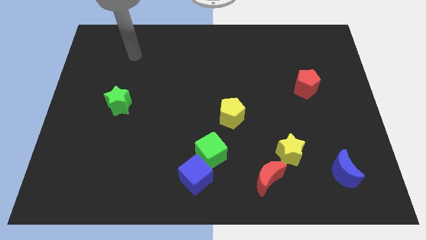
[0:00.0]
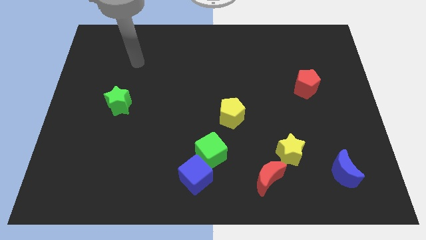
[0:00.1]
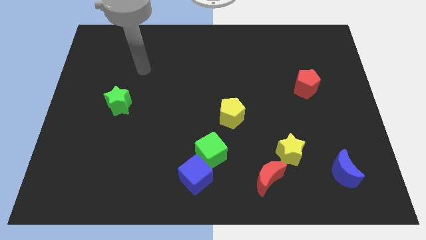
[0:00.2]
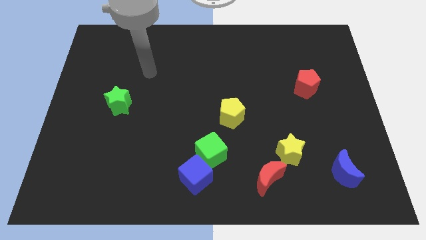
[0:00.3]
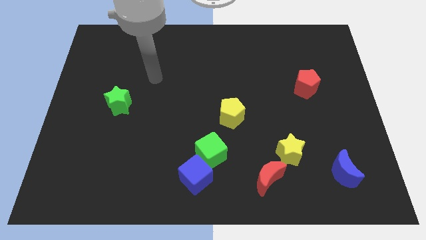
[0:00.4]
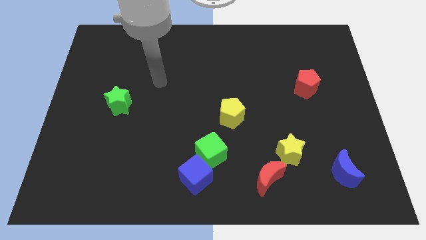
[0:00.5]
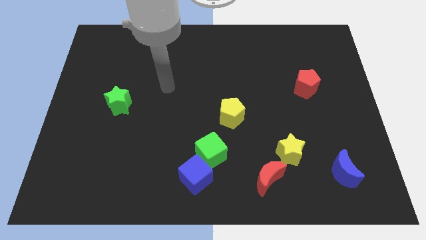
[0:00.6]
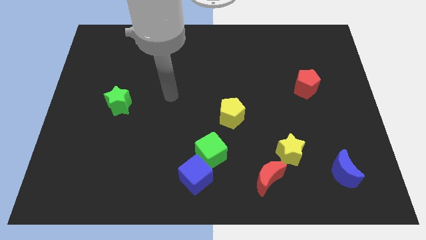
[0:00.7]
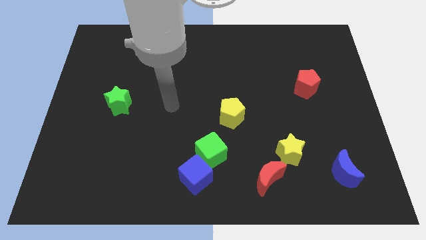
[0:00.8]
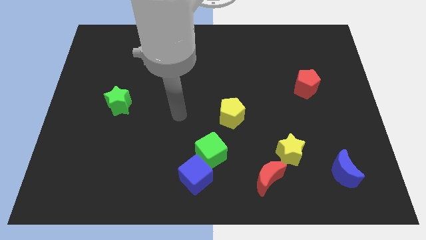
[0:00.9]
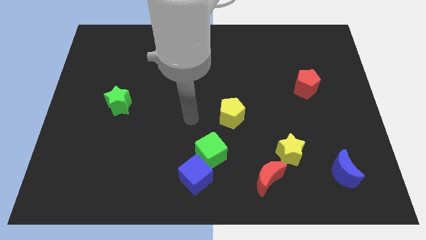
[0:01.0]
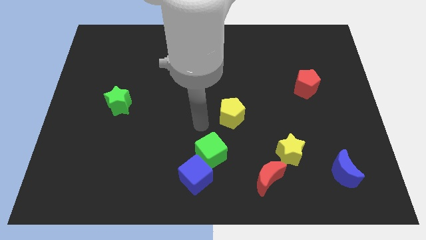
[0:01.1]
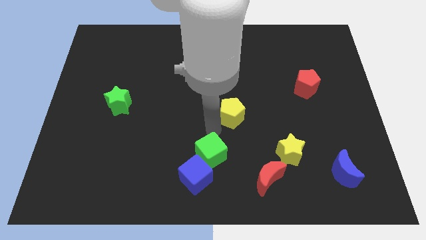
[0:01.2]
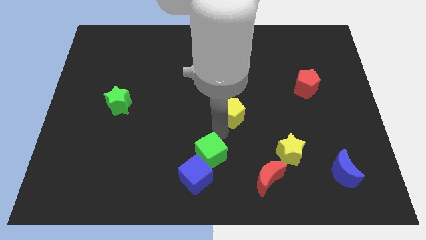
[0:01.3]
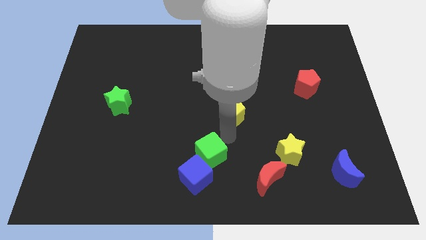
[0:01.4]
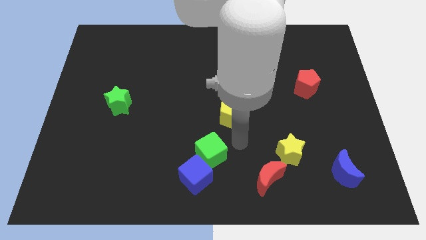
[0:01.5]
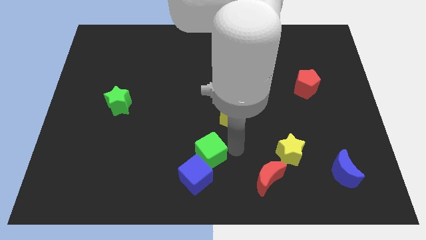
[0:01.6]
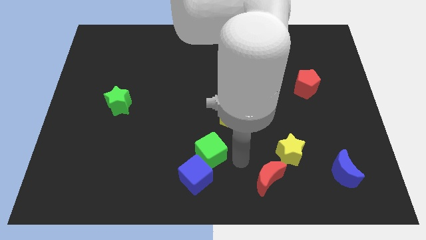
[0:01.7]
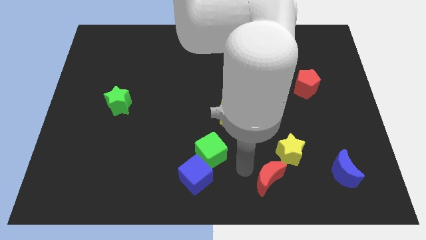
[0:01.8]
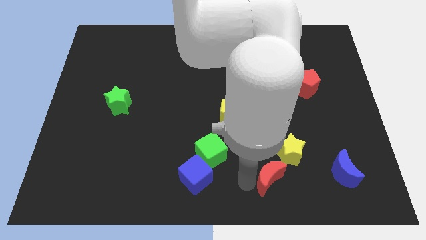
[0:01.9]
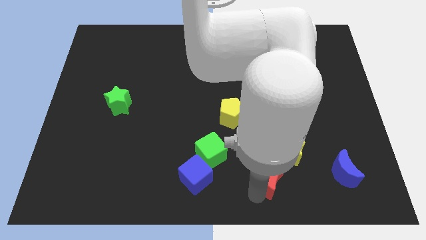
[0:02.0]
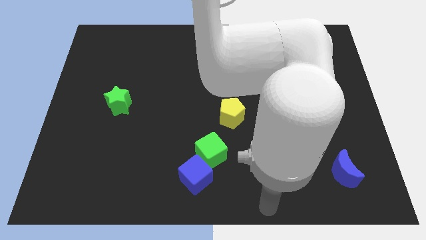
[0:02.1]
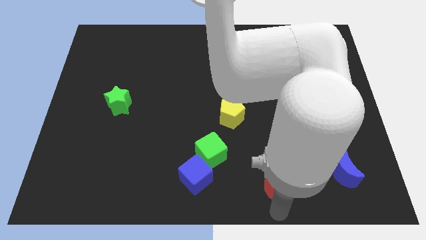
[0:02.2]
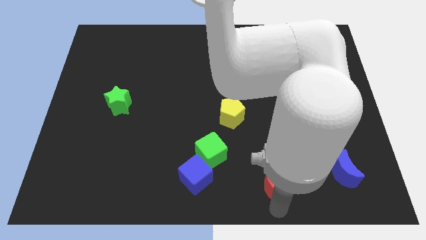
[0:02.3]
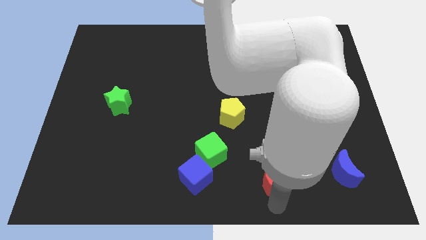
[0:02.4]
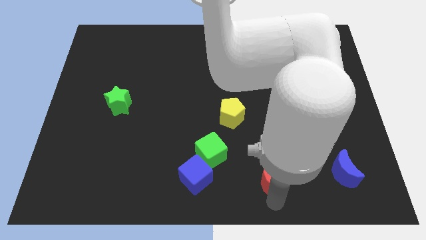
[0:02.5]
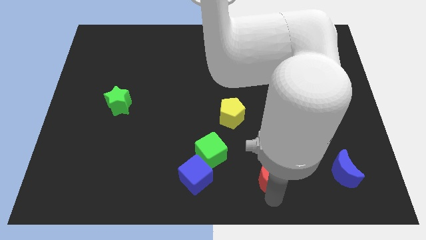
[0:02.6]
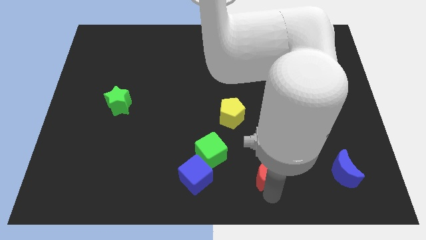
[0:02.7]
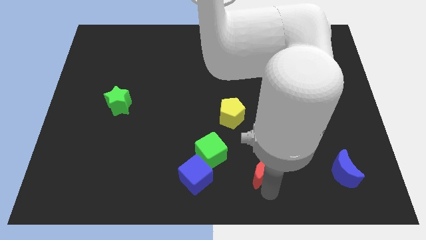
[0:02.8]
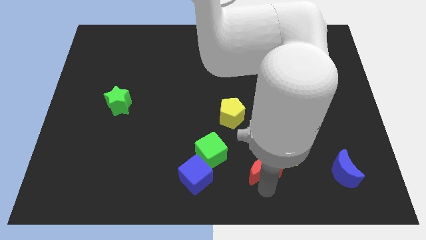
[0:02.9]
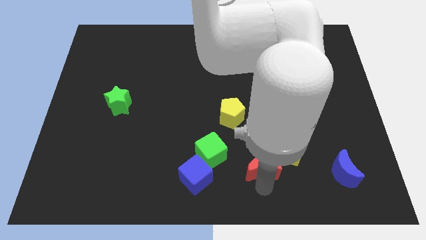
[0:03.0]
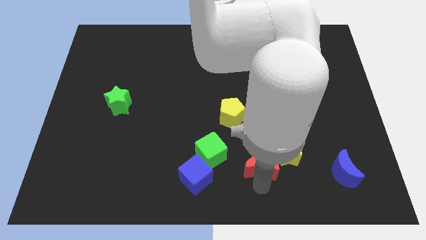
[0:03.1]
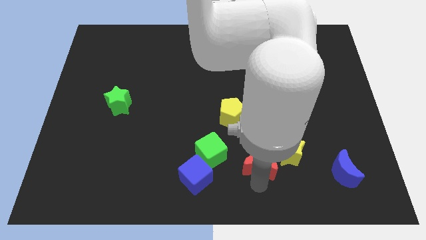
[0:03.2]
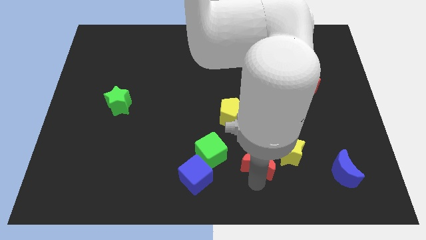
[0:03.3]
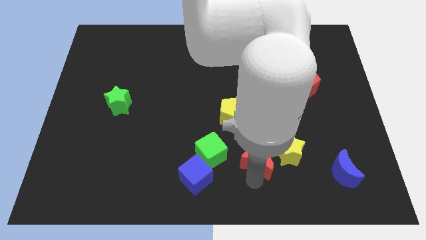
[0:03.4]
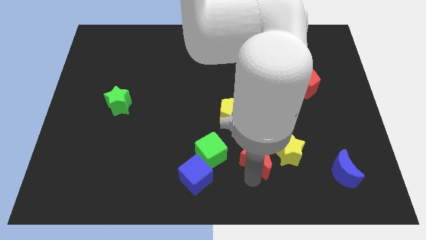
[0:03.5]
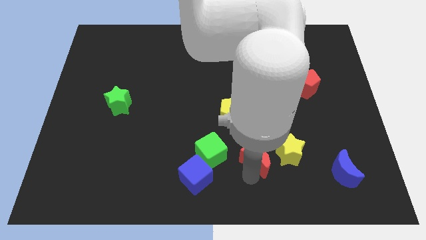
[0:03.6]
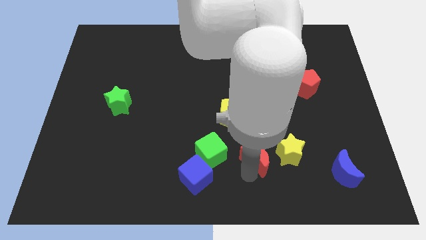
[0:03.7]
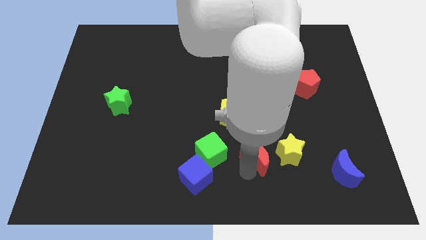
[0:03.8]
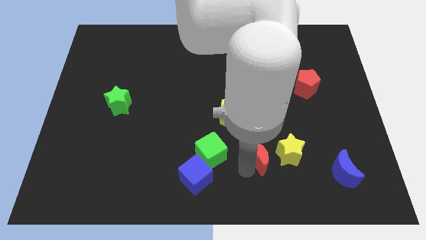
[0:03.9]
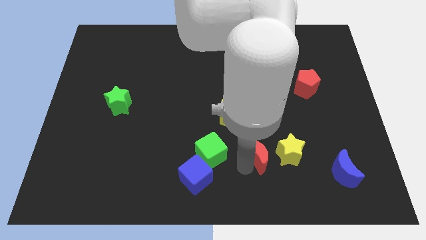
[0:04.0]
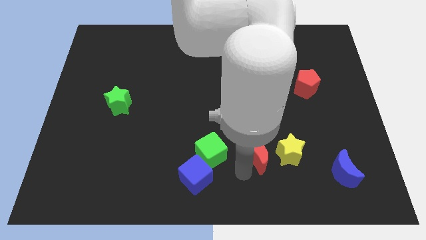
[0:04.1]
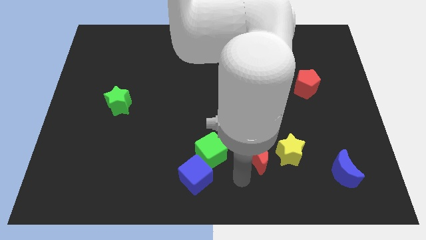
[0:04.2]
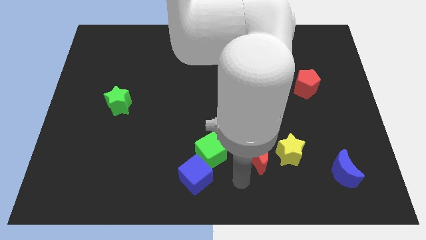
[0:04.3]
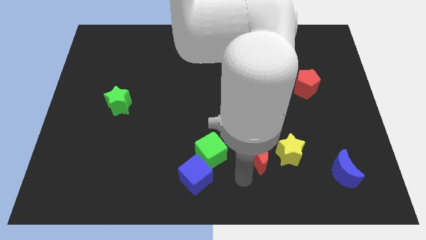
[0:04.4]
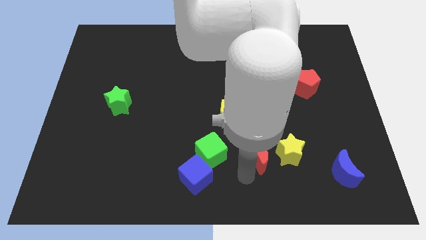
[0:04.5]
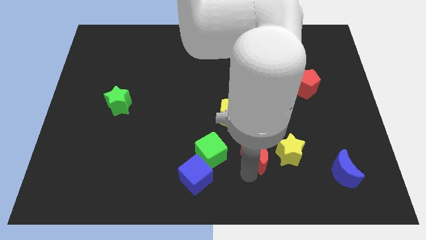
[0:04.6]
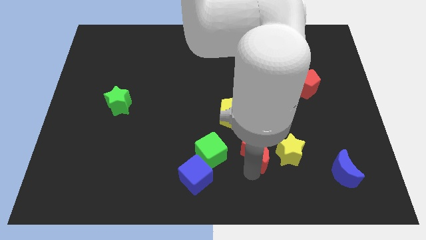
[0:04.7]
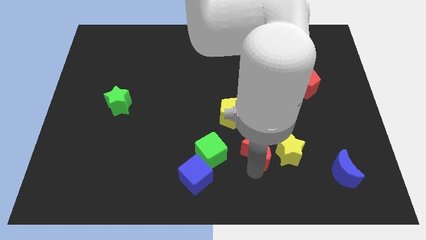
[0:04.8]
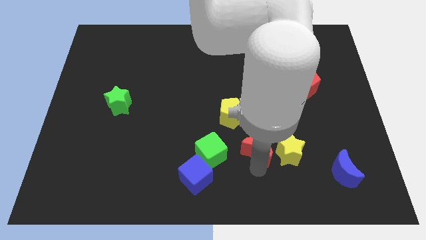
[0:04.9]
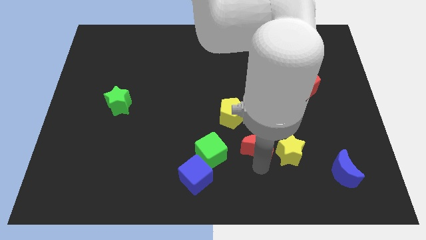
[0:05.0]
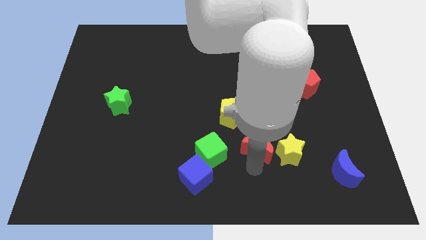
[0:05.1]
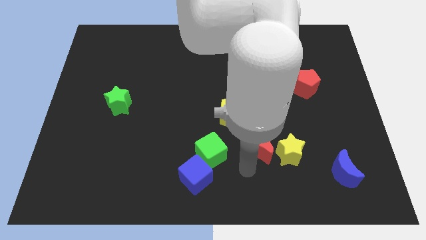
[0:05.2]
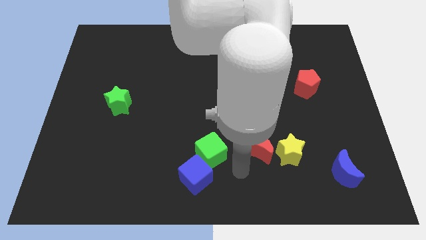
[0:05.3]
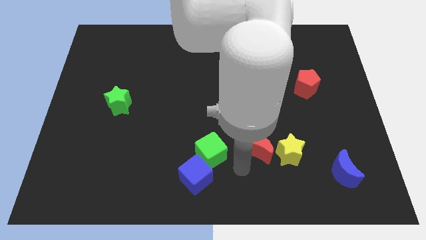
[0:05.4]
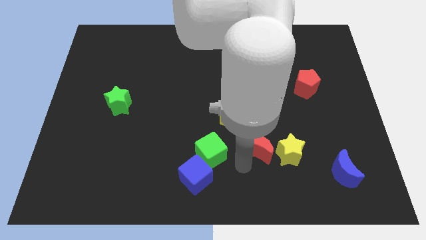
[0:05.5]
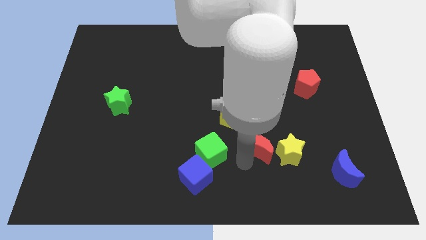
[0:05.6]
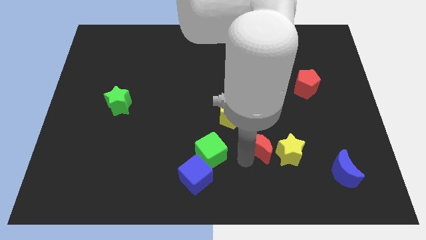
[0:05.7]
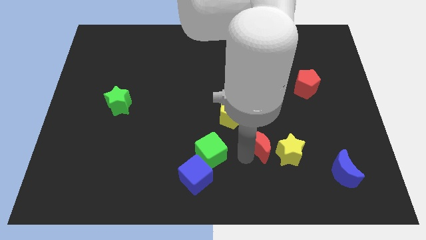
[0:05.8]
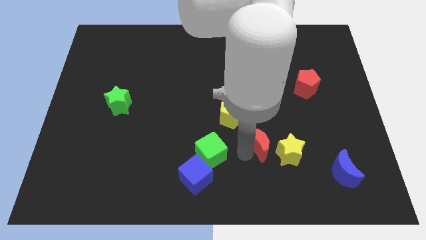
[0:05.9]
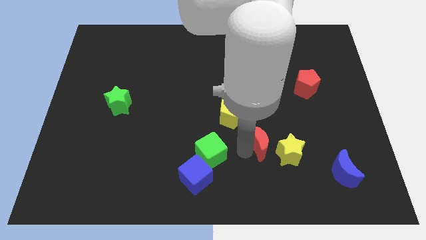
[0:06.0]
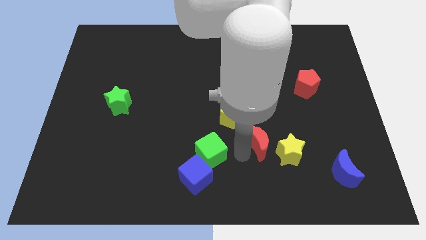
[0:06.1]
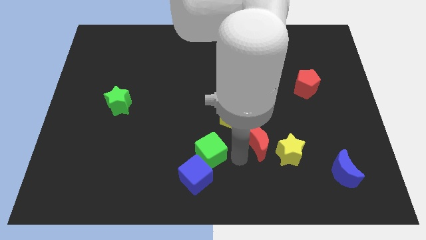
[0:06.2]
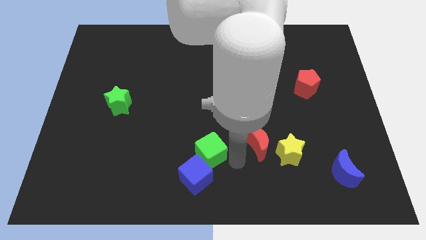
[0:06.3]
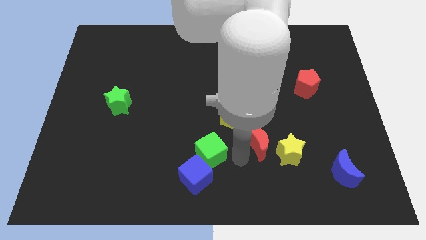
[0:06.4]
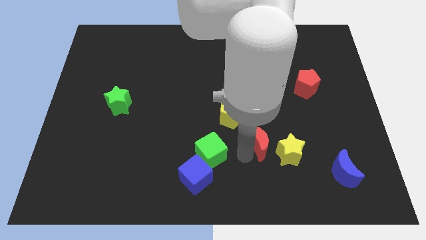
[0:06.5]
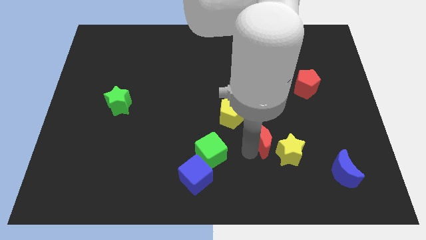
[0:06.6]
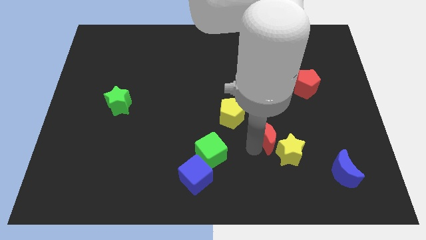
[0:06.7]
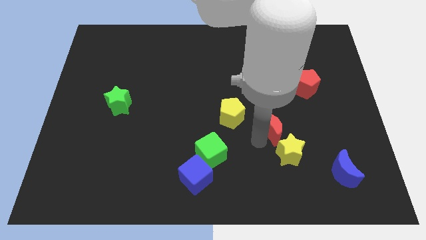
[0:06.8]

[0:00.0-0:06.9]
slightly push the red moon upwards and right diagonally

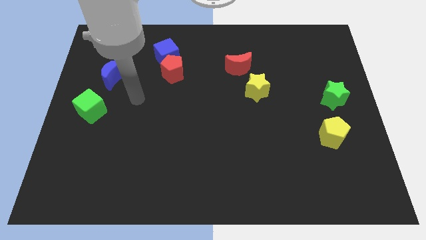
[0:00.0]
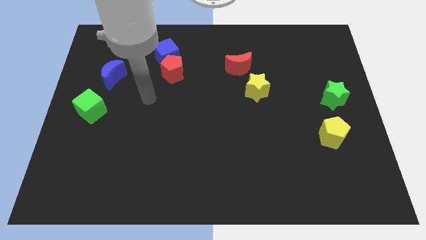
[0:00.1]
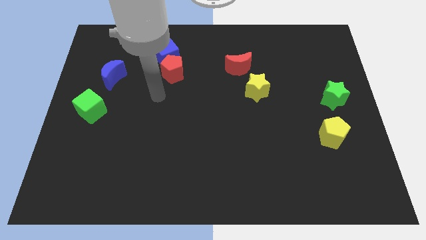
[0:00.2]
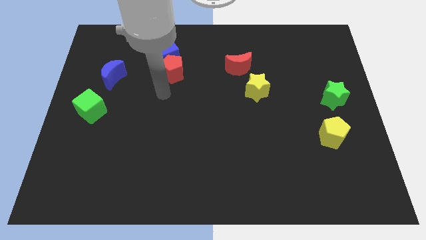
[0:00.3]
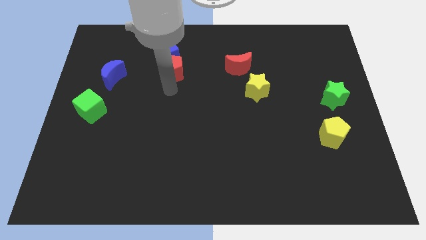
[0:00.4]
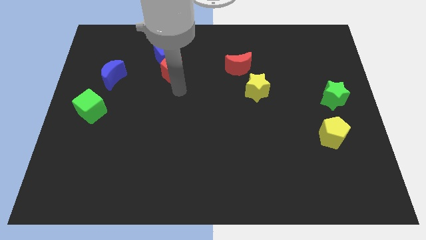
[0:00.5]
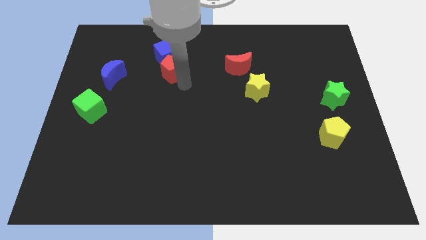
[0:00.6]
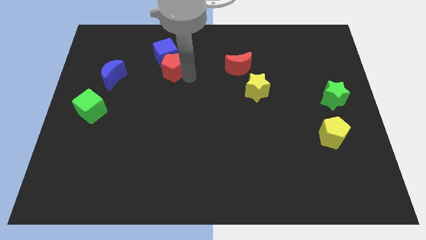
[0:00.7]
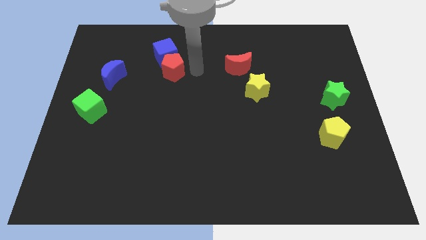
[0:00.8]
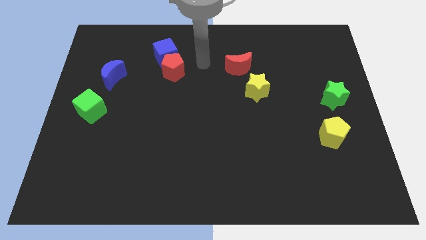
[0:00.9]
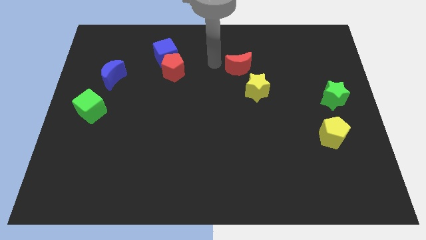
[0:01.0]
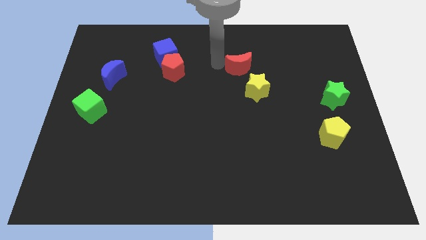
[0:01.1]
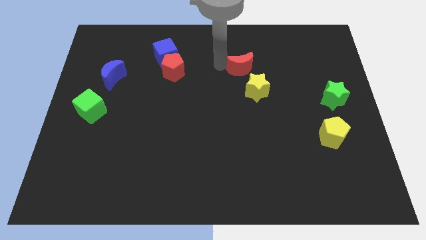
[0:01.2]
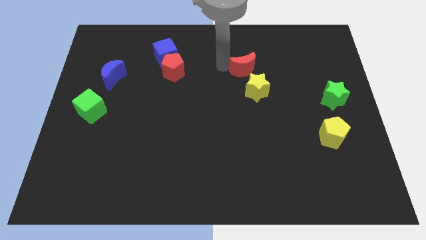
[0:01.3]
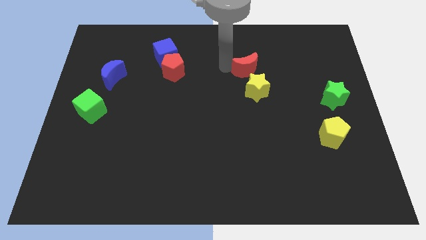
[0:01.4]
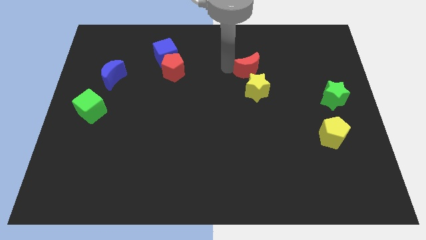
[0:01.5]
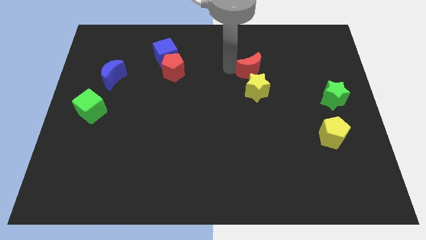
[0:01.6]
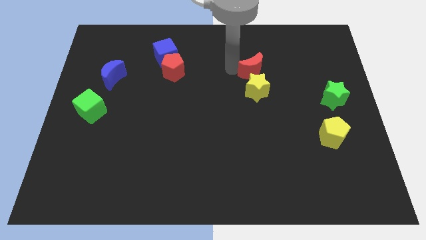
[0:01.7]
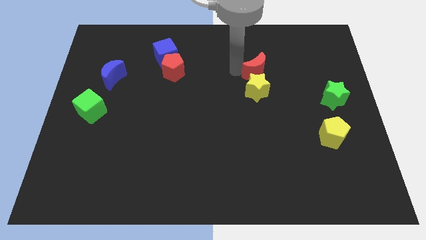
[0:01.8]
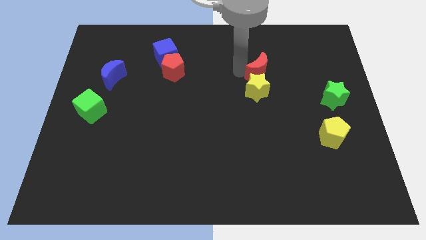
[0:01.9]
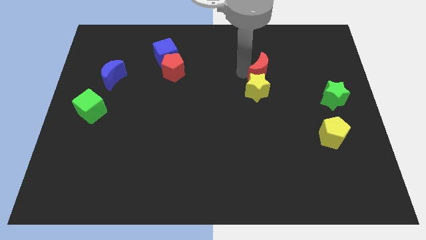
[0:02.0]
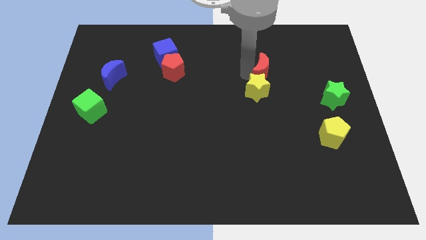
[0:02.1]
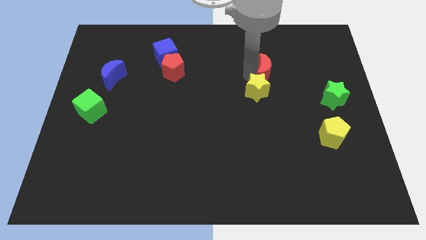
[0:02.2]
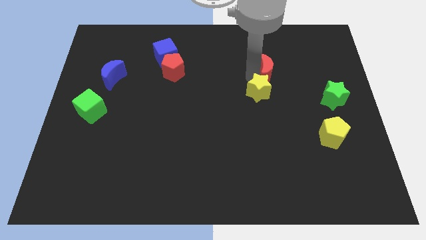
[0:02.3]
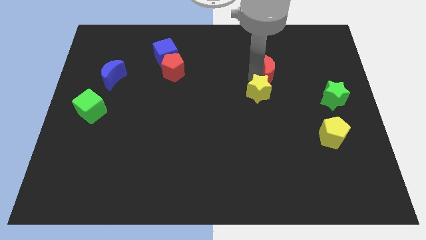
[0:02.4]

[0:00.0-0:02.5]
slide the red moon somewhat to the right
